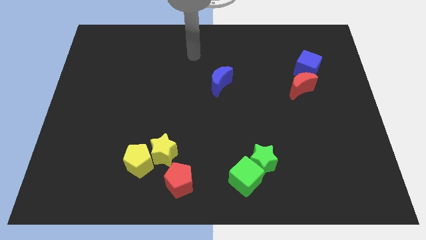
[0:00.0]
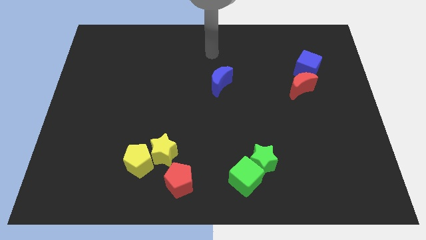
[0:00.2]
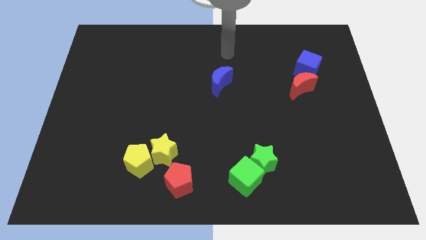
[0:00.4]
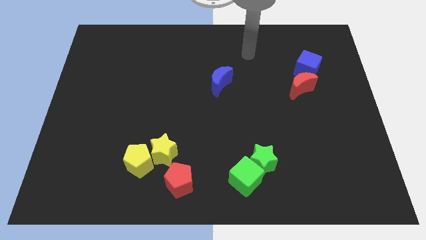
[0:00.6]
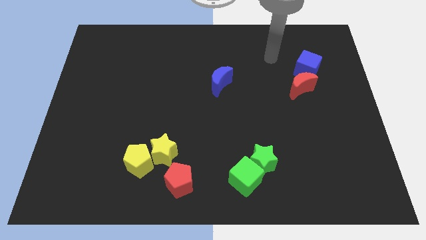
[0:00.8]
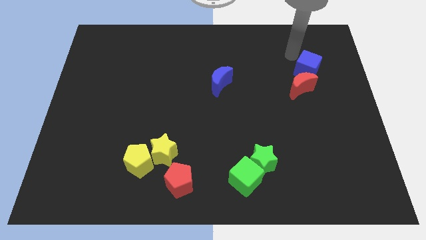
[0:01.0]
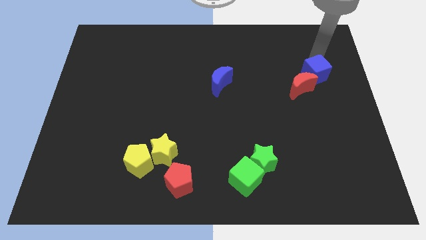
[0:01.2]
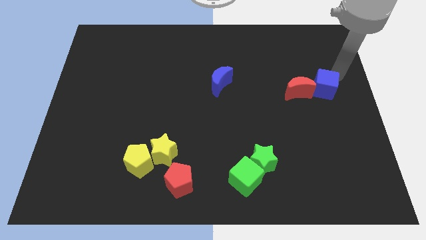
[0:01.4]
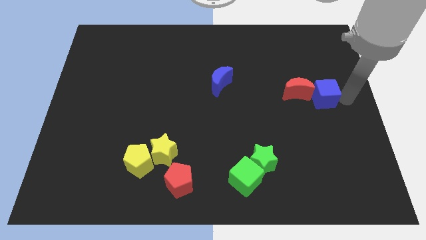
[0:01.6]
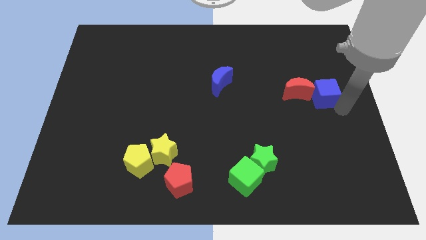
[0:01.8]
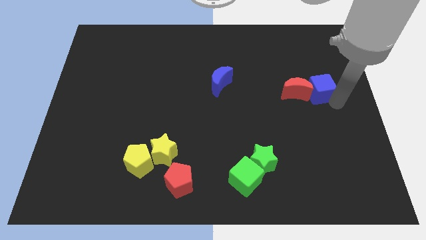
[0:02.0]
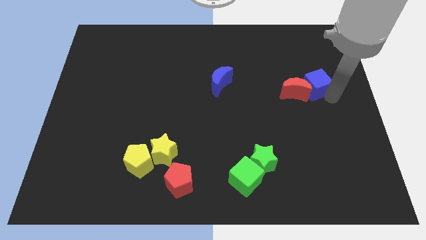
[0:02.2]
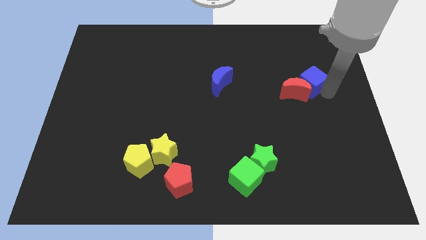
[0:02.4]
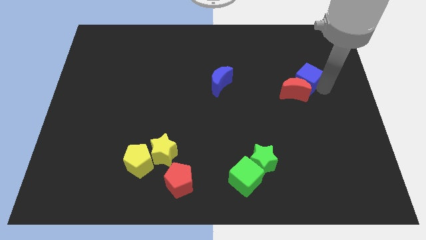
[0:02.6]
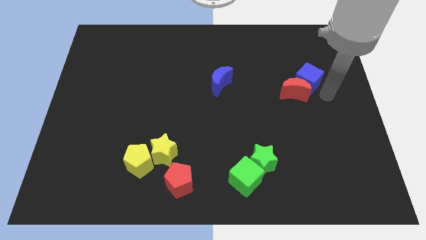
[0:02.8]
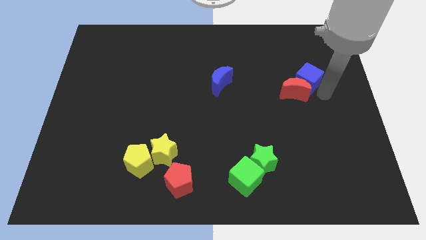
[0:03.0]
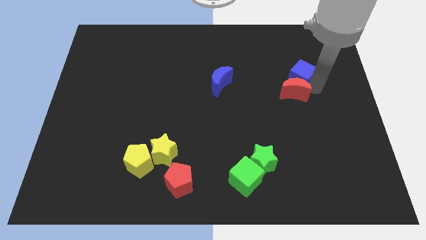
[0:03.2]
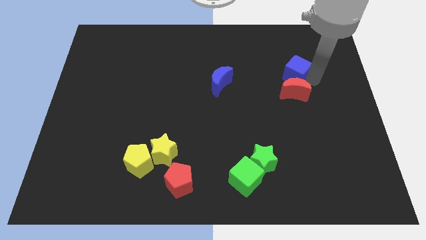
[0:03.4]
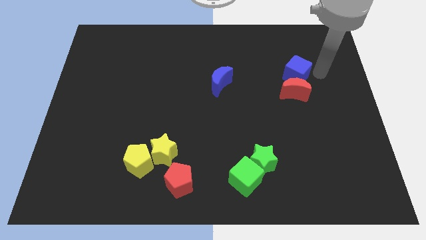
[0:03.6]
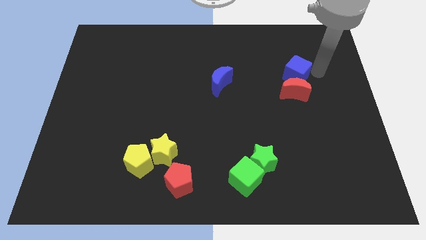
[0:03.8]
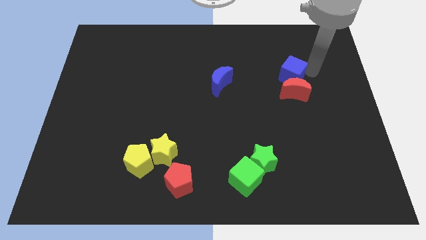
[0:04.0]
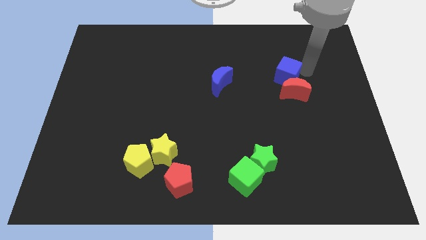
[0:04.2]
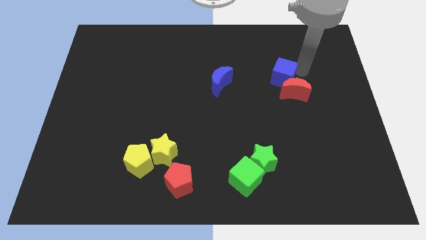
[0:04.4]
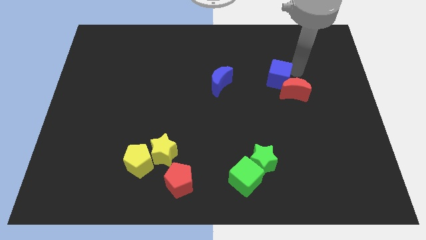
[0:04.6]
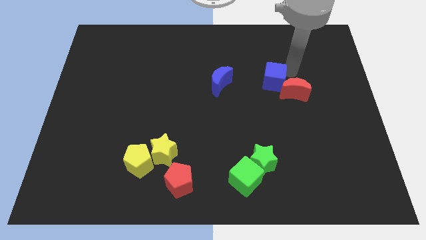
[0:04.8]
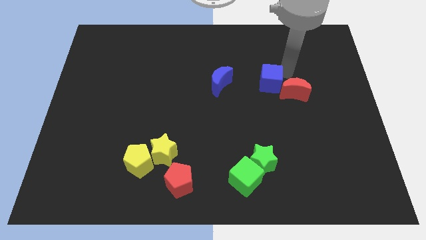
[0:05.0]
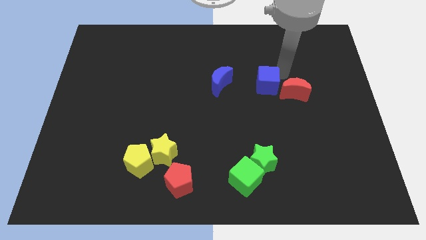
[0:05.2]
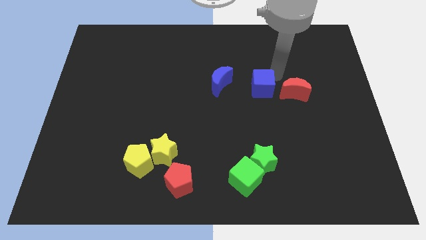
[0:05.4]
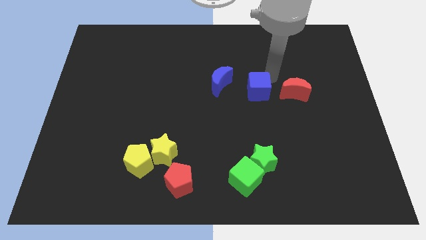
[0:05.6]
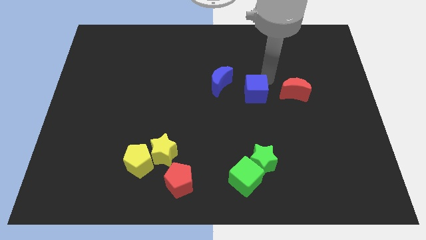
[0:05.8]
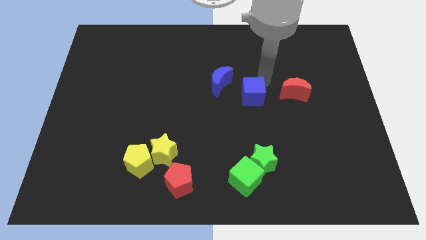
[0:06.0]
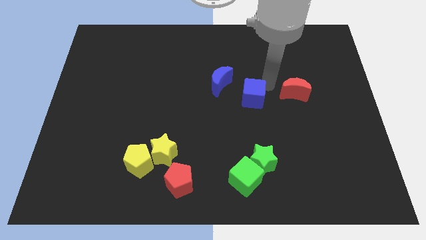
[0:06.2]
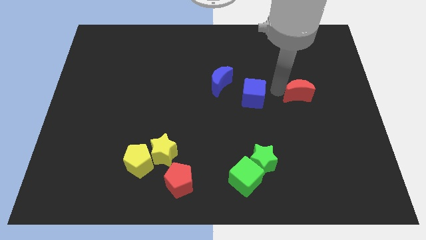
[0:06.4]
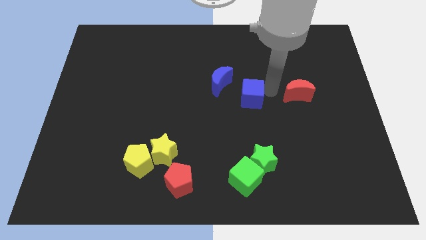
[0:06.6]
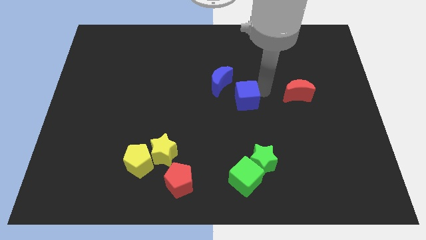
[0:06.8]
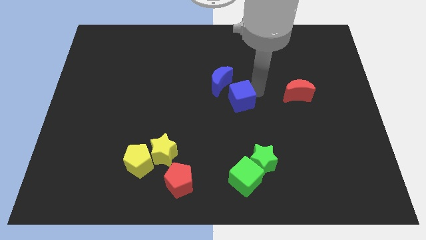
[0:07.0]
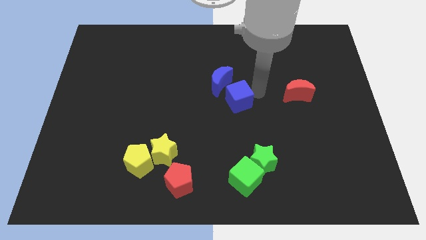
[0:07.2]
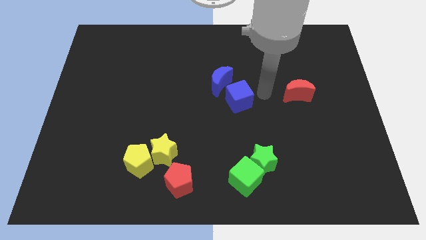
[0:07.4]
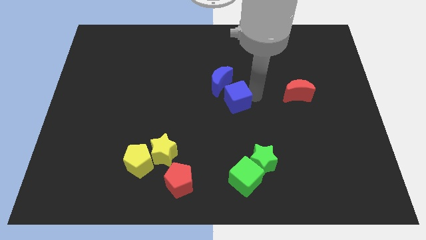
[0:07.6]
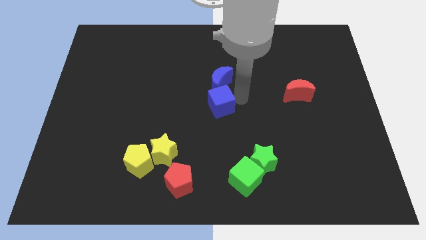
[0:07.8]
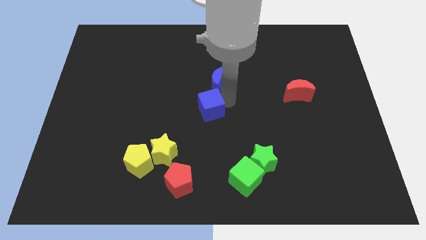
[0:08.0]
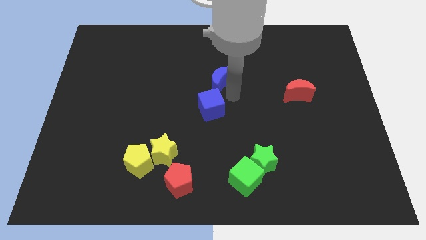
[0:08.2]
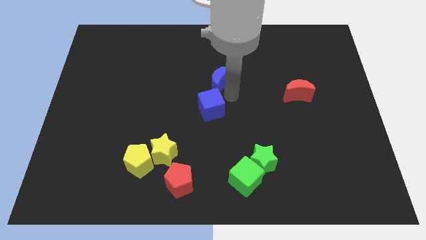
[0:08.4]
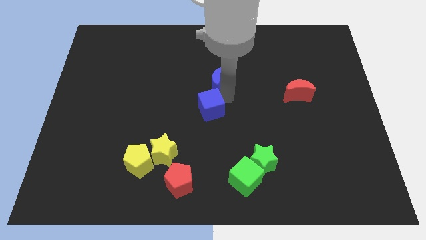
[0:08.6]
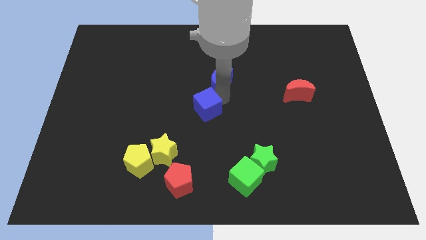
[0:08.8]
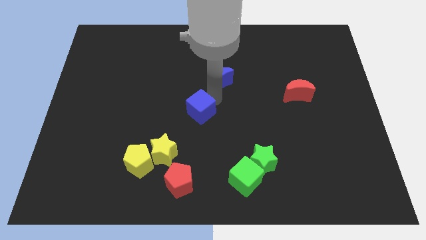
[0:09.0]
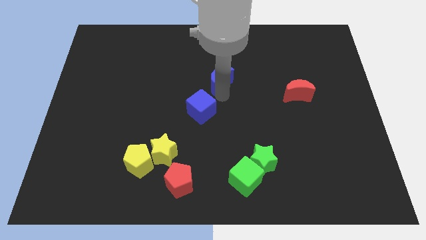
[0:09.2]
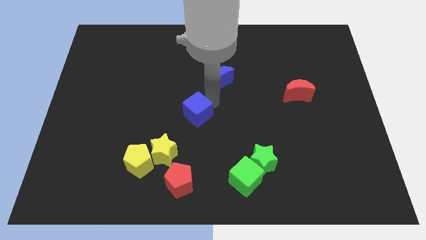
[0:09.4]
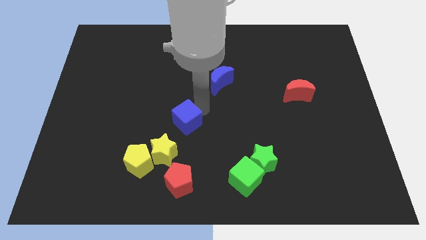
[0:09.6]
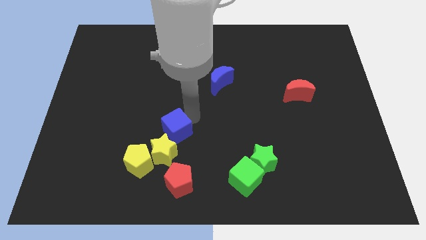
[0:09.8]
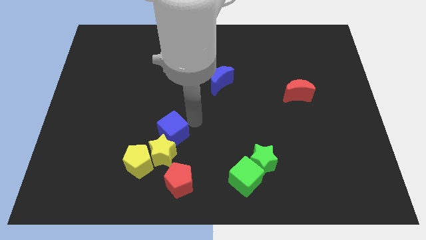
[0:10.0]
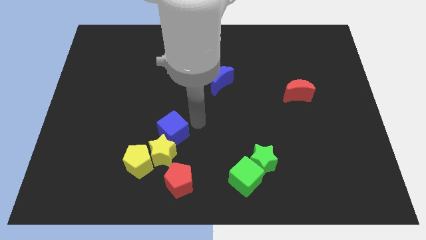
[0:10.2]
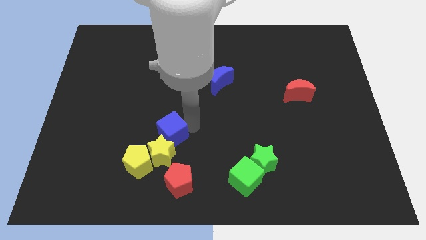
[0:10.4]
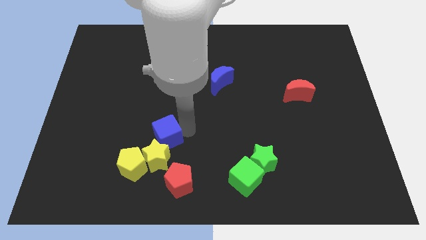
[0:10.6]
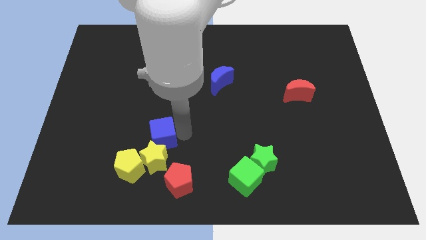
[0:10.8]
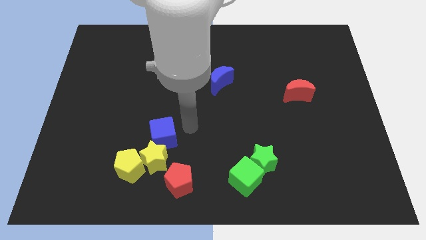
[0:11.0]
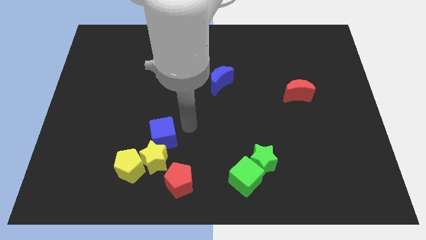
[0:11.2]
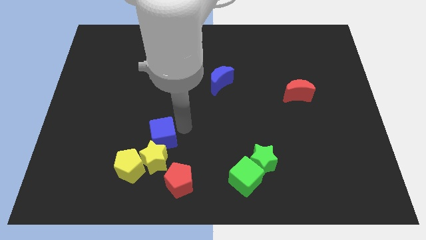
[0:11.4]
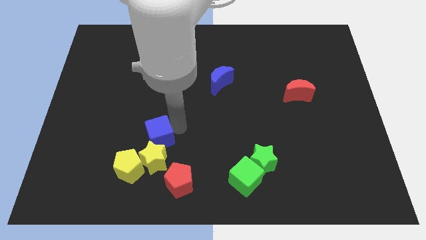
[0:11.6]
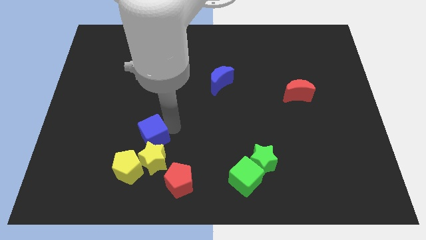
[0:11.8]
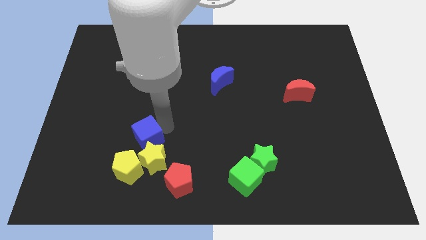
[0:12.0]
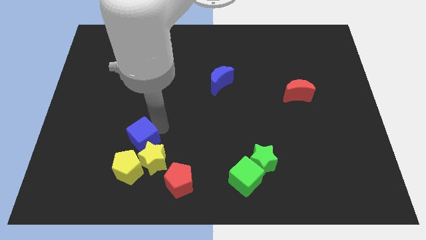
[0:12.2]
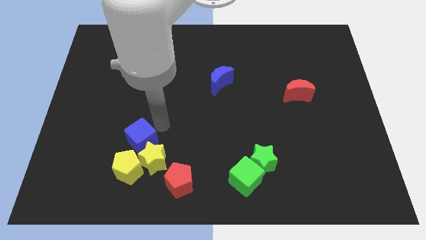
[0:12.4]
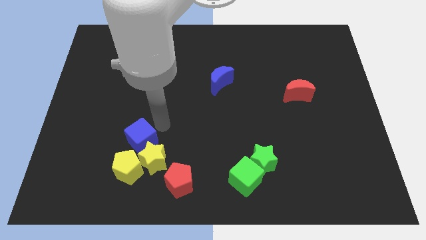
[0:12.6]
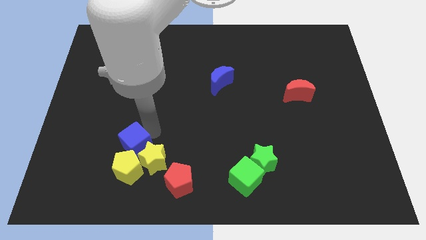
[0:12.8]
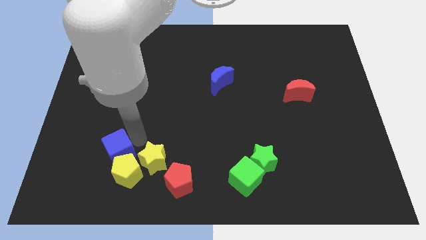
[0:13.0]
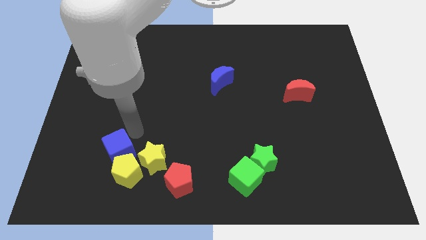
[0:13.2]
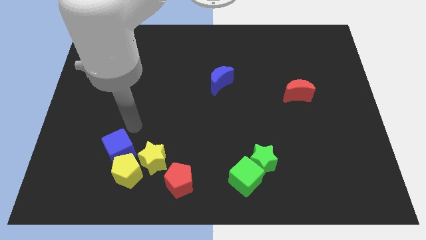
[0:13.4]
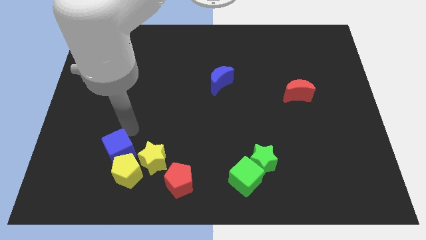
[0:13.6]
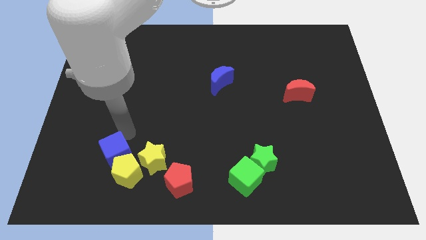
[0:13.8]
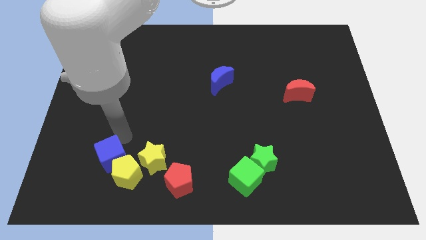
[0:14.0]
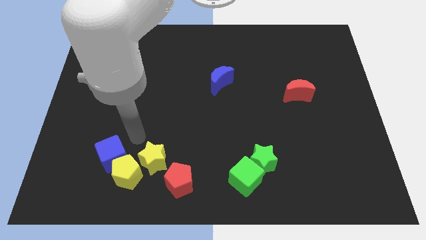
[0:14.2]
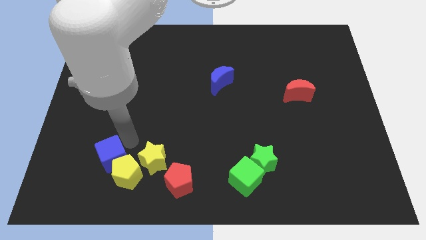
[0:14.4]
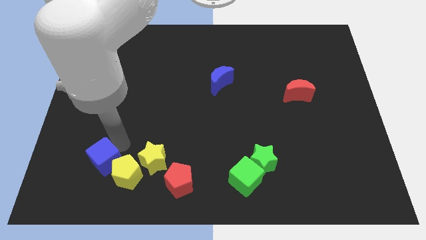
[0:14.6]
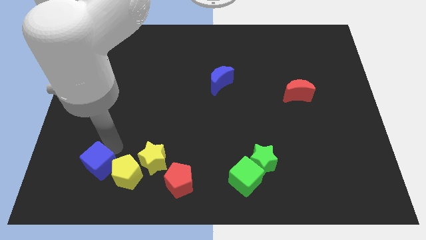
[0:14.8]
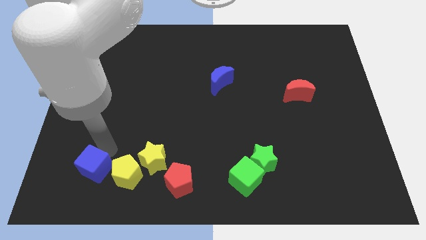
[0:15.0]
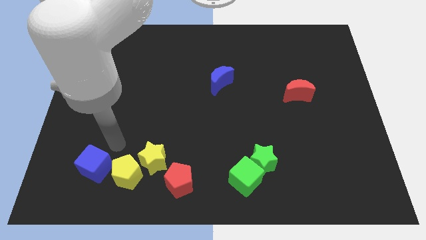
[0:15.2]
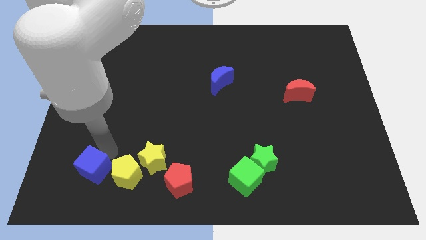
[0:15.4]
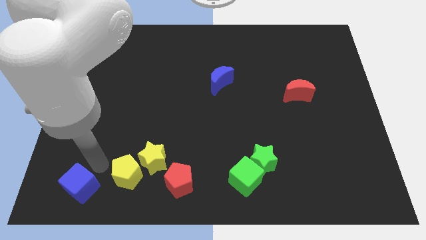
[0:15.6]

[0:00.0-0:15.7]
move the blue cube to the bottom left of the board
